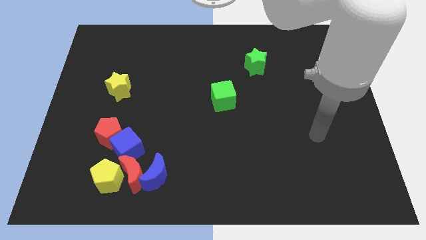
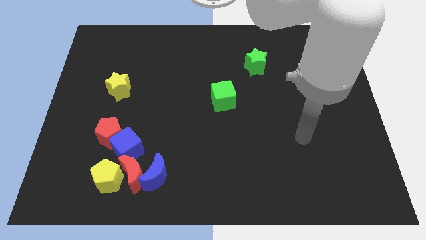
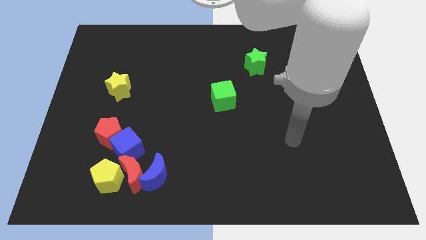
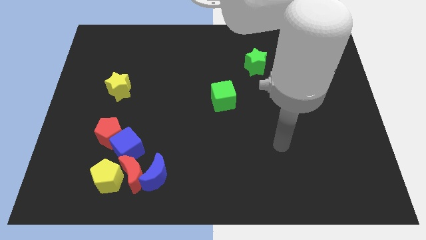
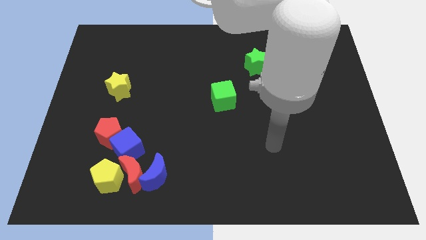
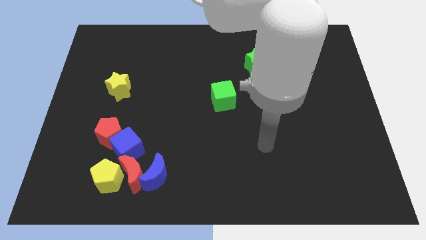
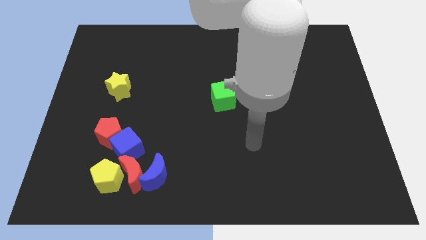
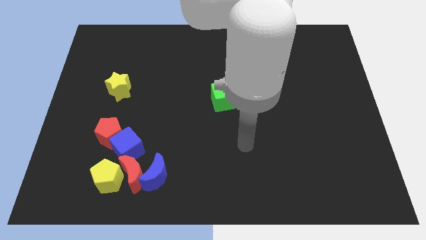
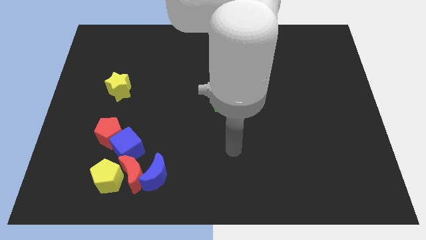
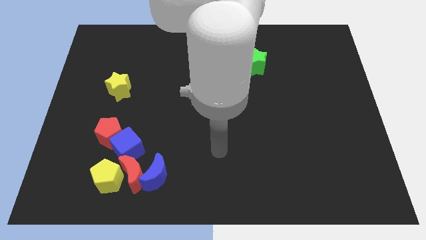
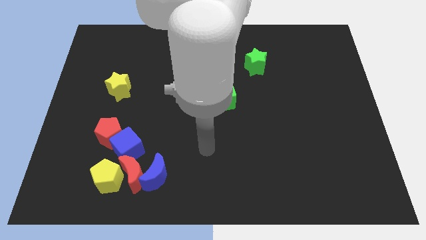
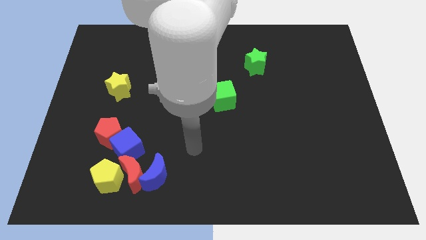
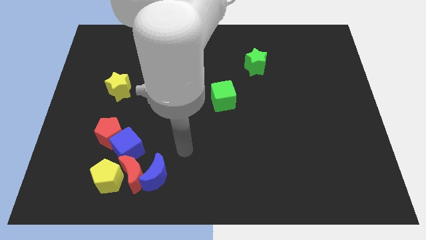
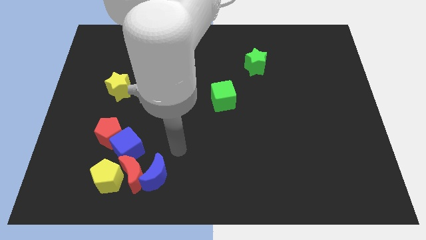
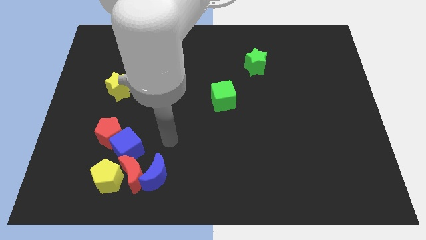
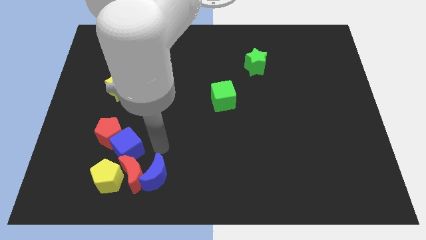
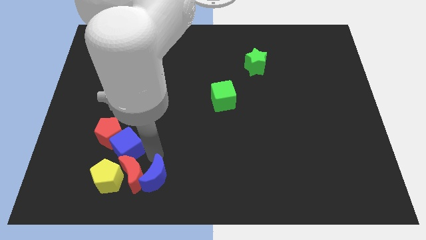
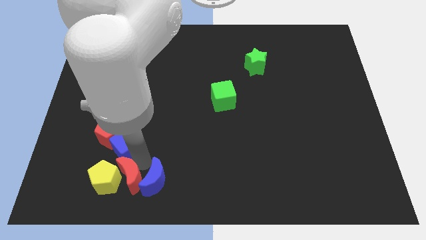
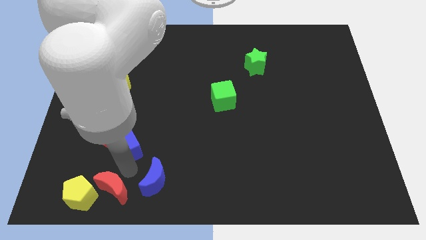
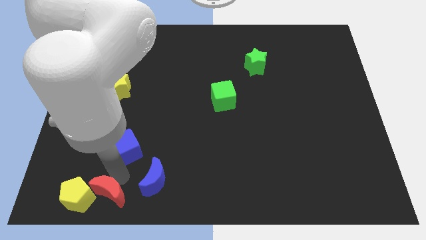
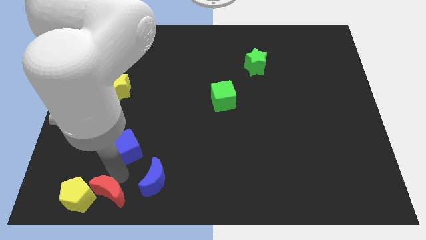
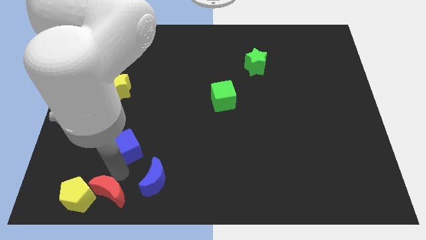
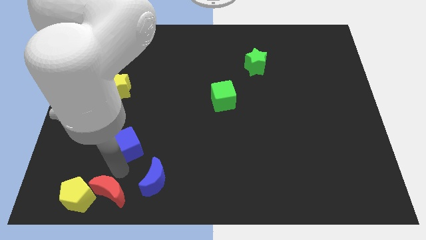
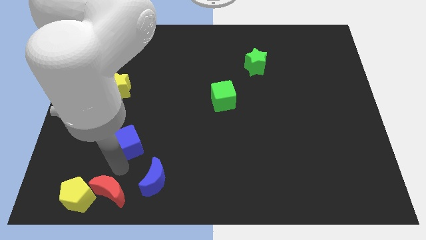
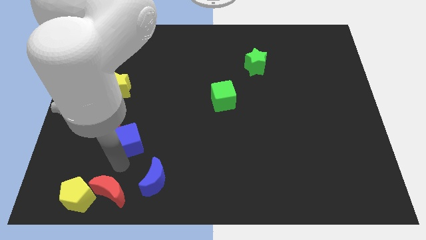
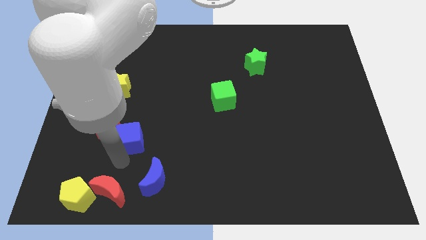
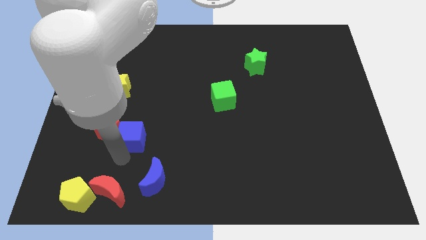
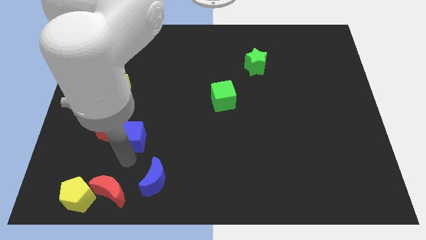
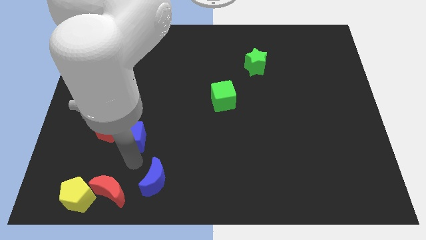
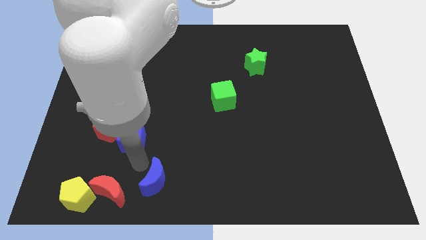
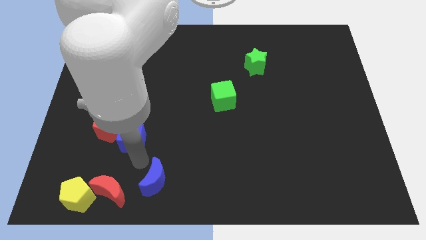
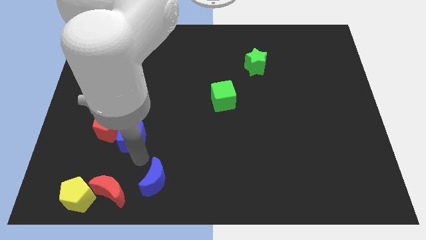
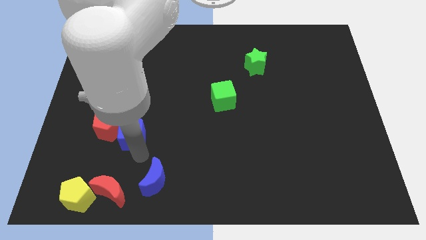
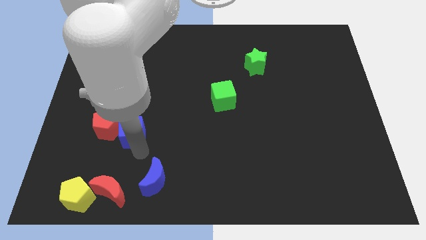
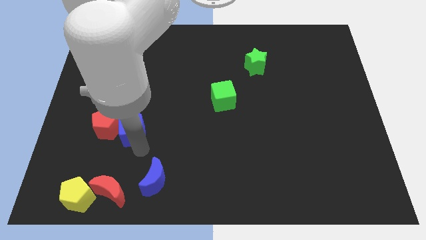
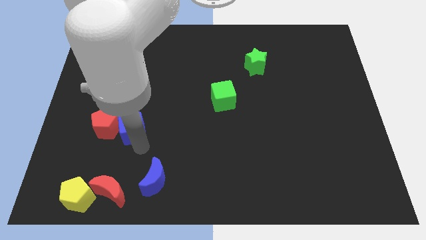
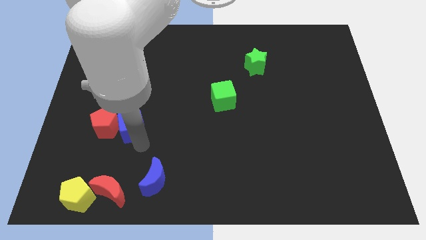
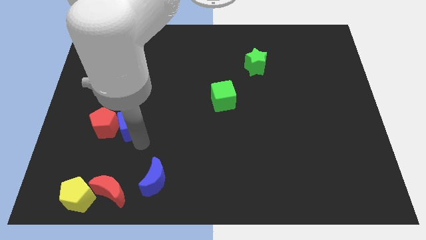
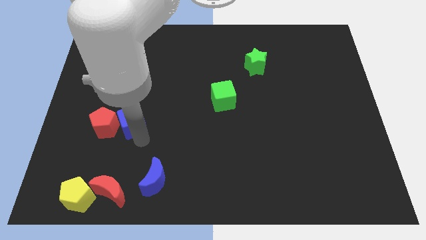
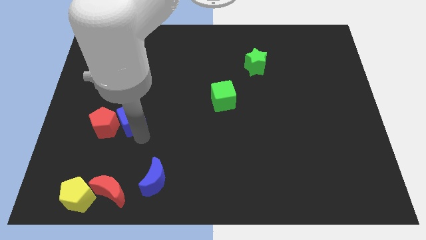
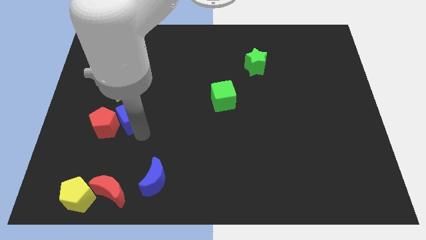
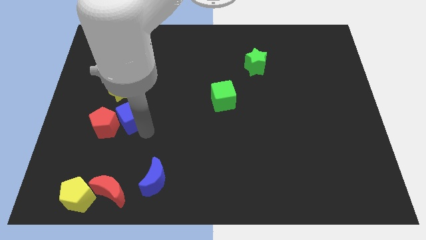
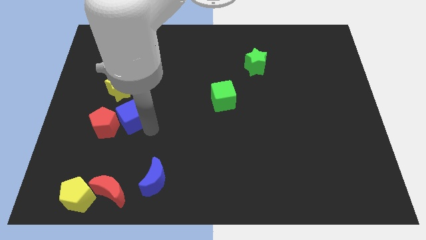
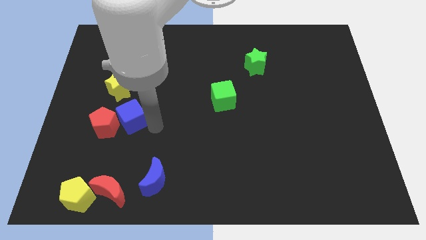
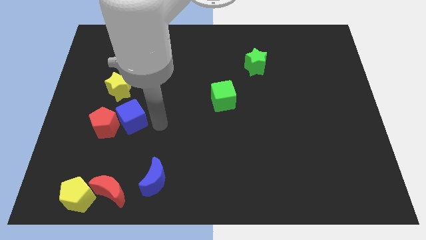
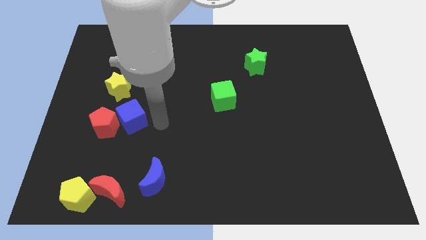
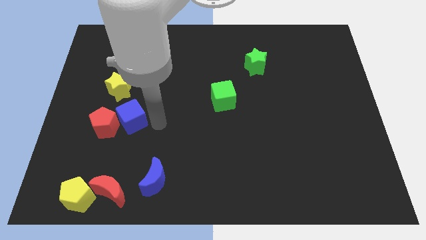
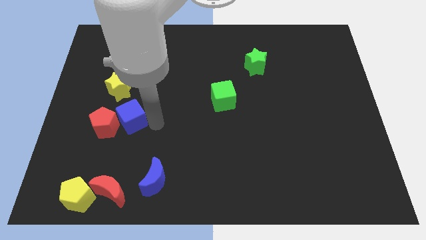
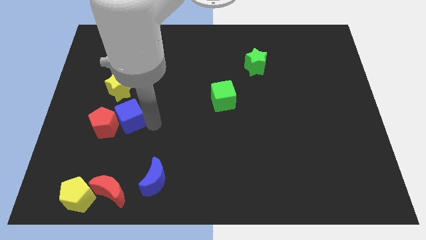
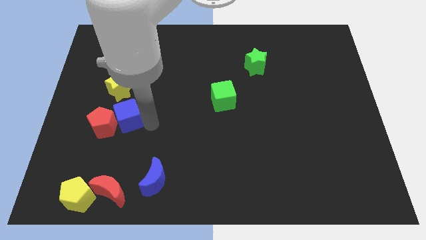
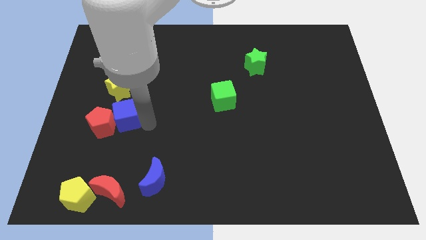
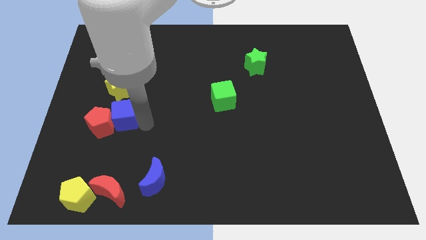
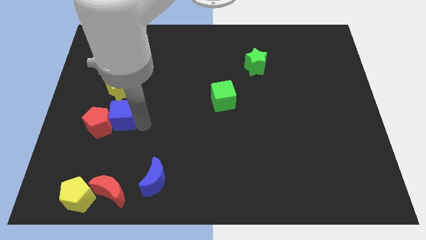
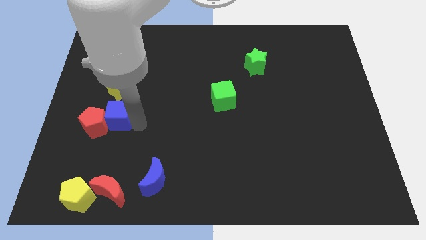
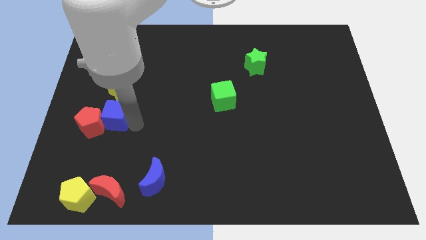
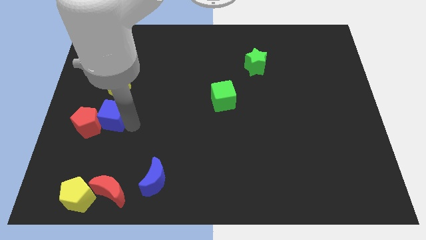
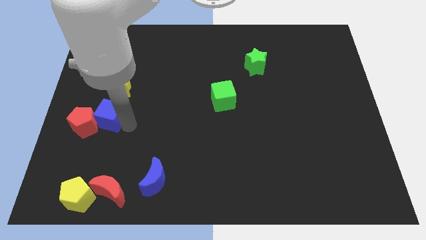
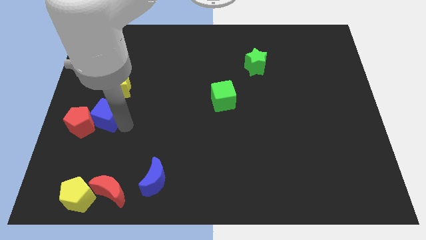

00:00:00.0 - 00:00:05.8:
push the blue cube to the bottom left of the yellow star
